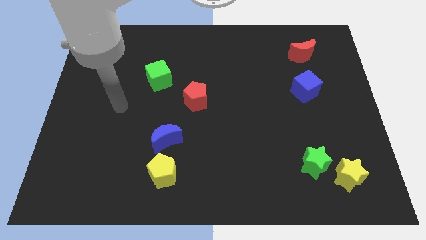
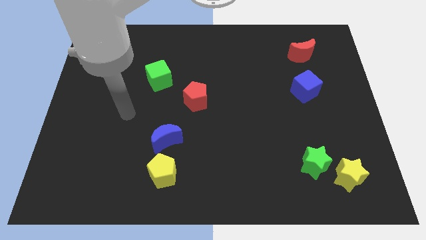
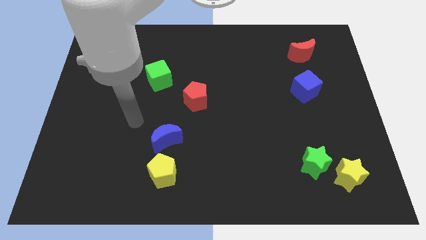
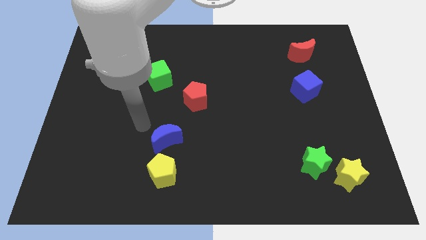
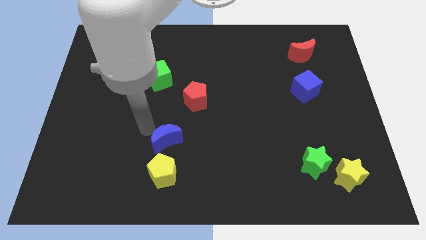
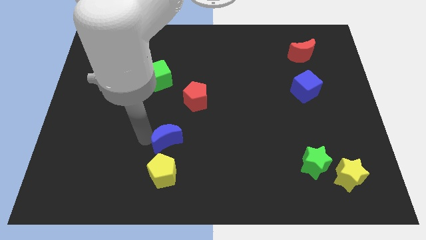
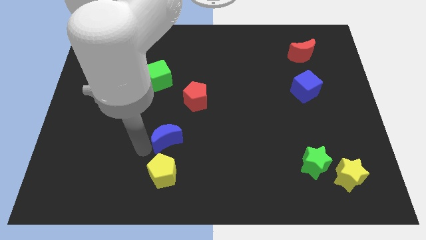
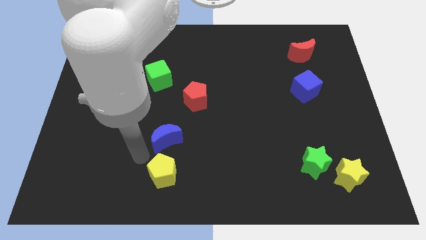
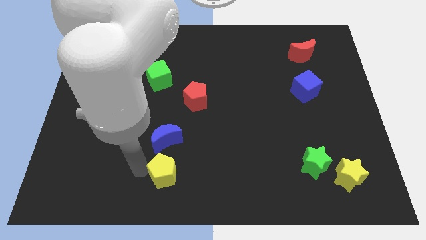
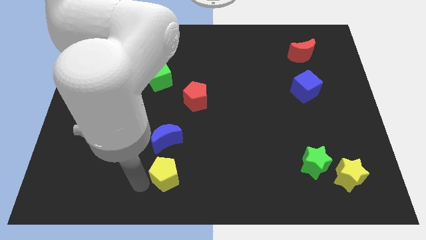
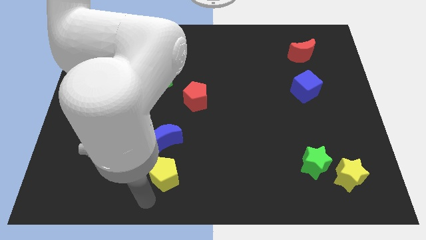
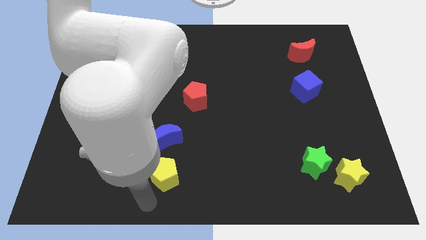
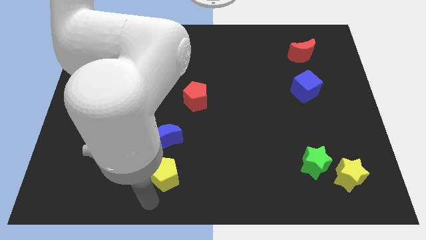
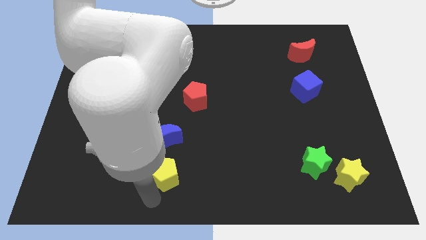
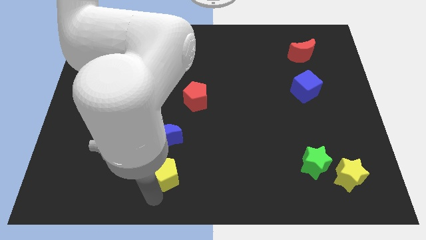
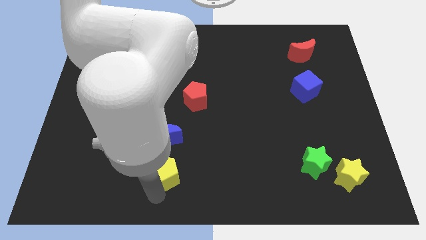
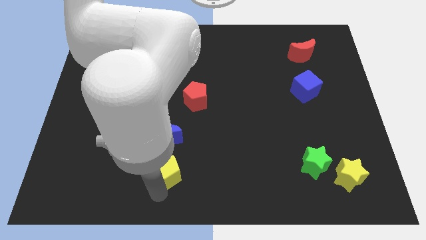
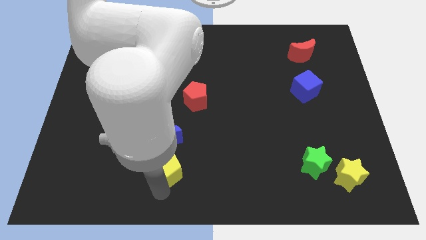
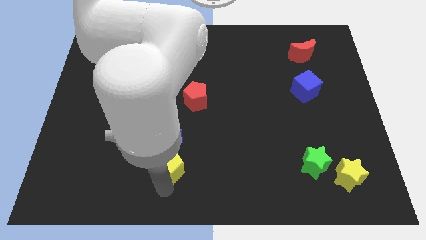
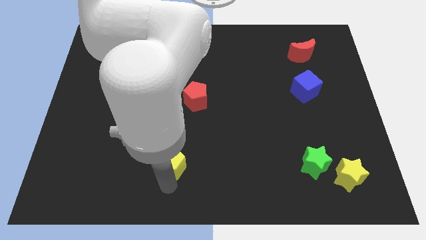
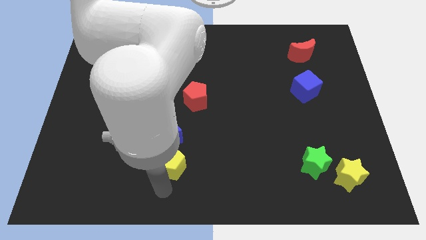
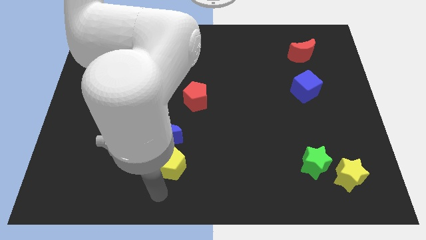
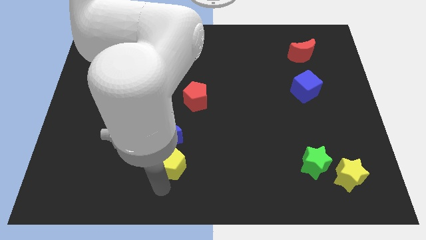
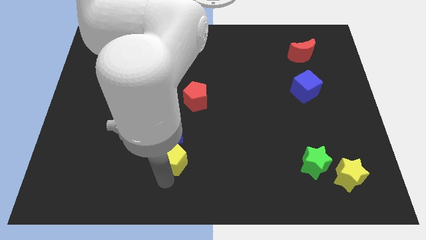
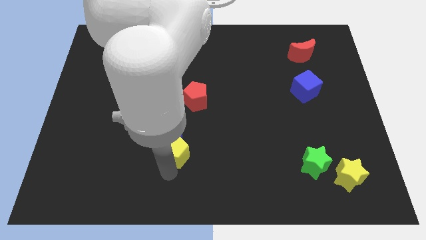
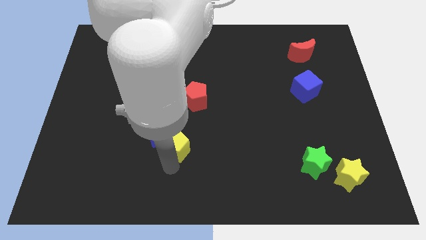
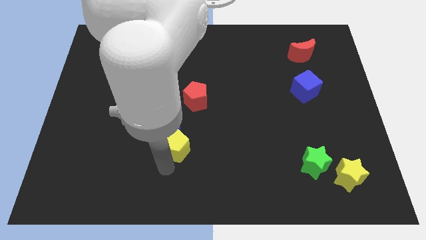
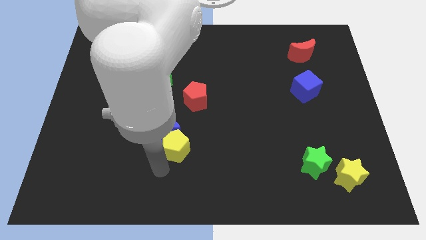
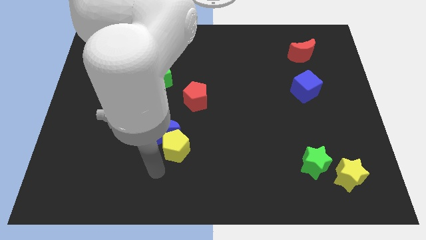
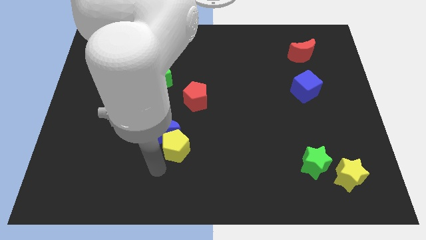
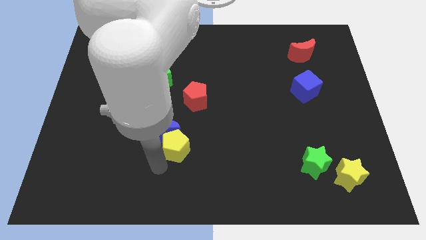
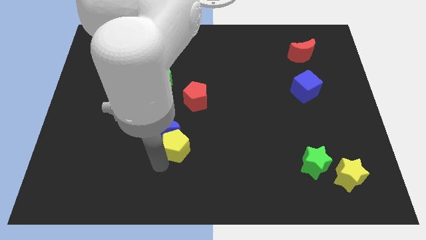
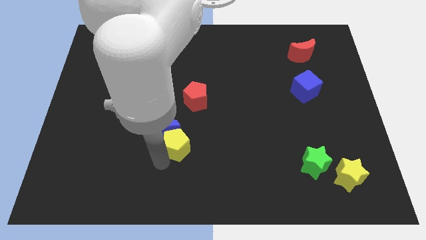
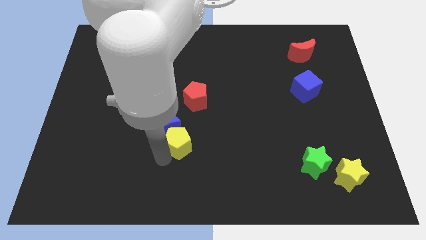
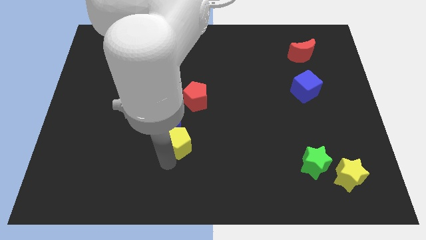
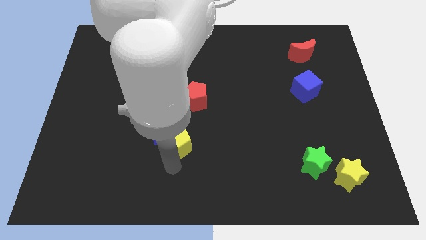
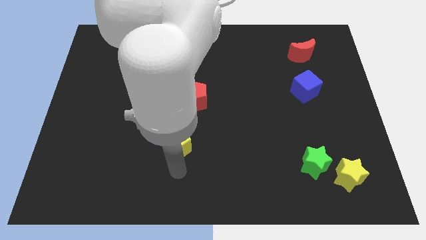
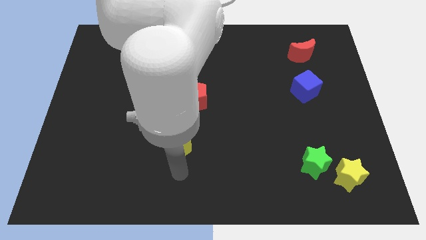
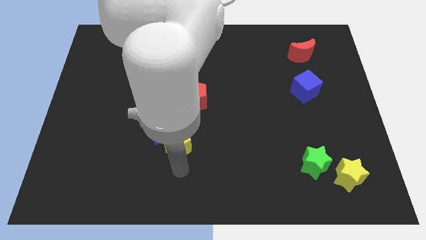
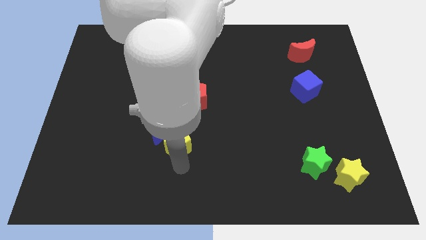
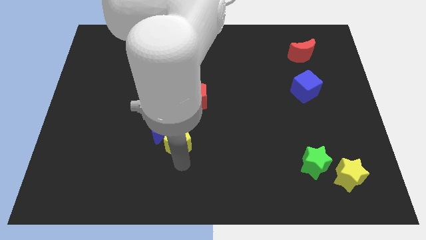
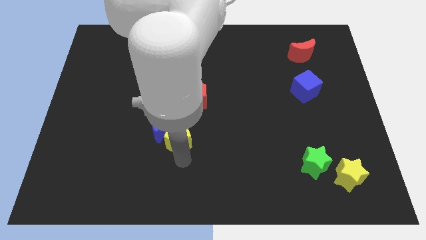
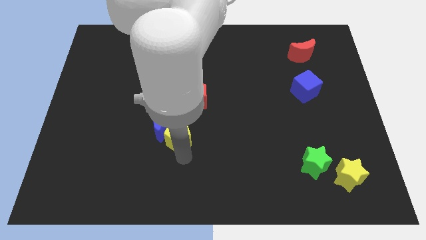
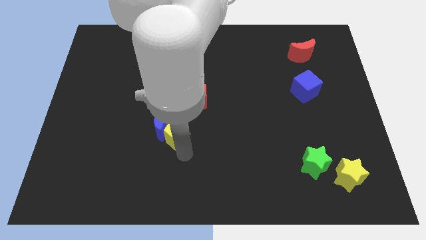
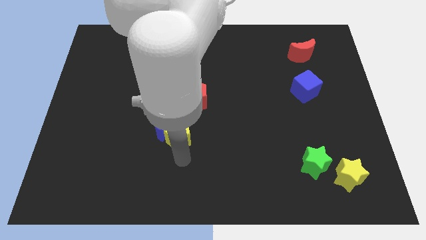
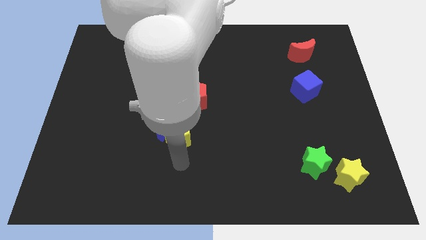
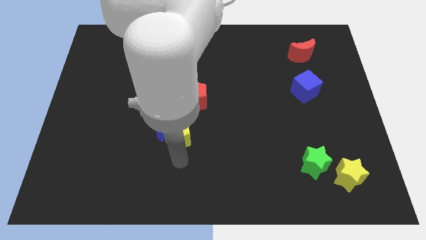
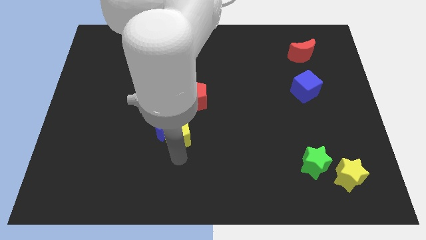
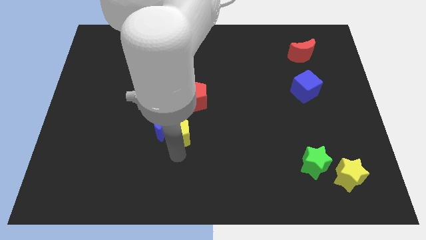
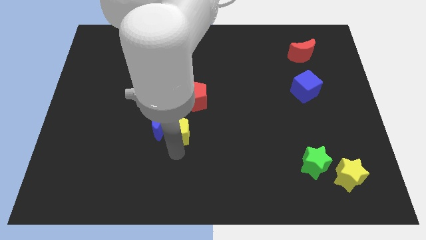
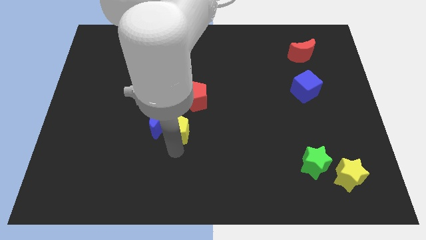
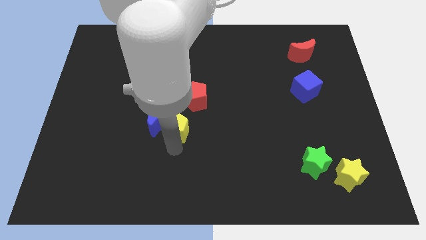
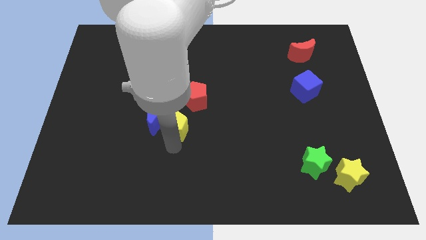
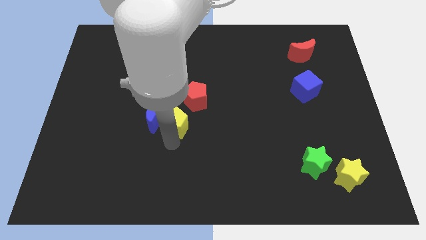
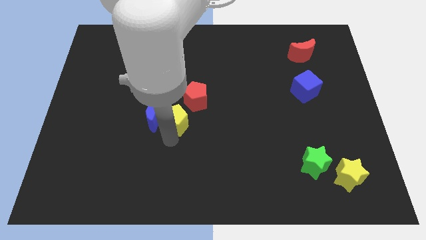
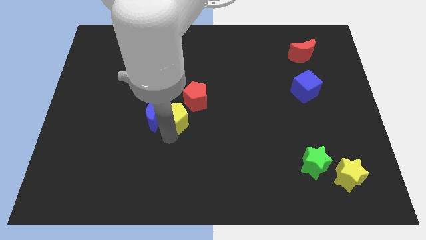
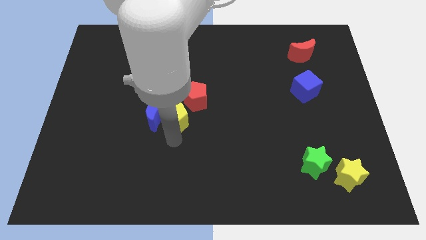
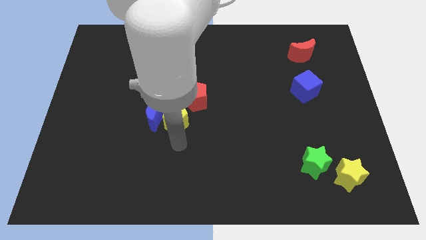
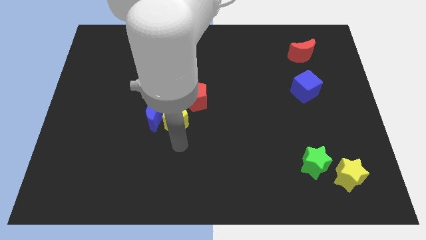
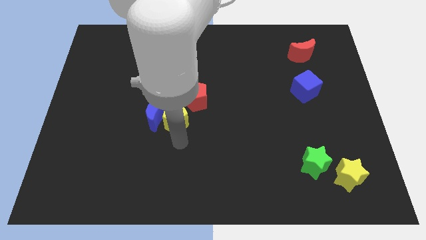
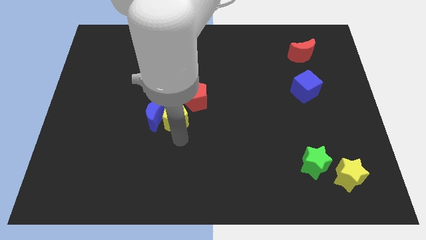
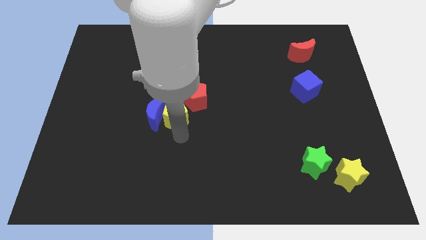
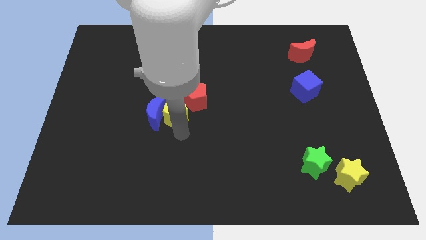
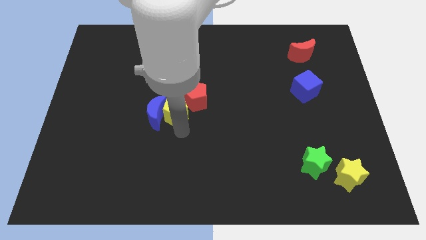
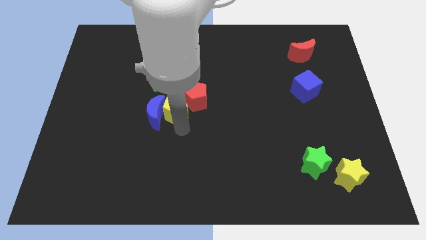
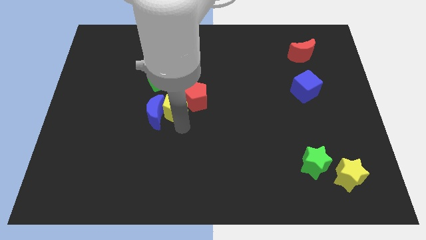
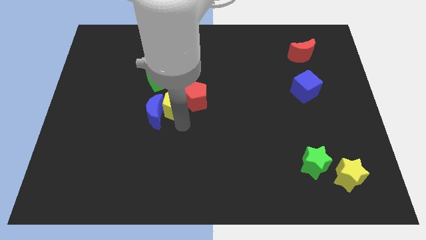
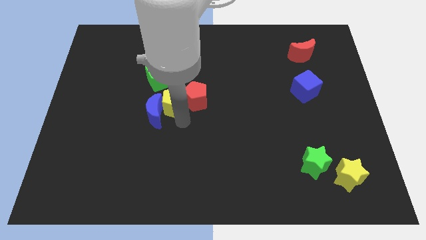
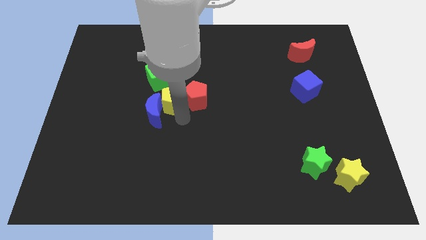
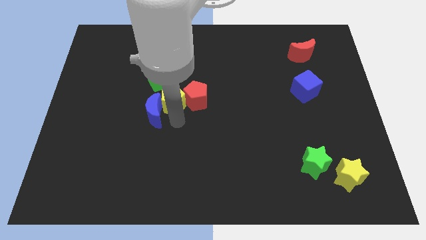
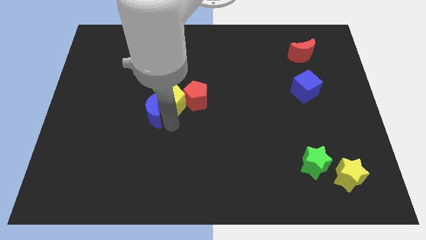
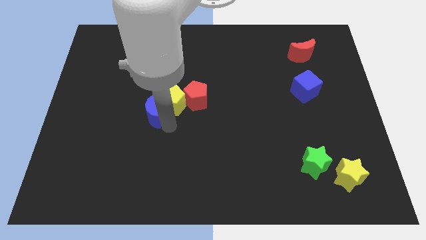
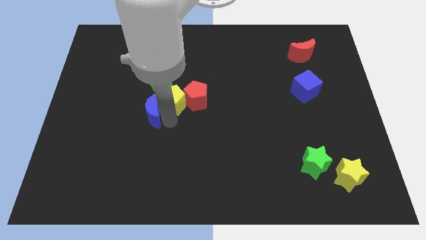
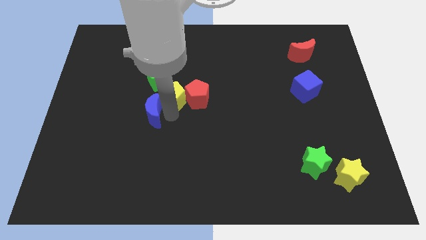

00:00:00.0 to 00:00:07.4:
push the yellow pentagon upwards

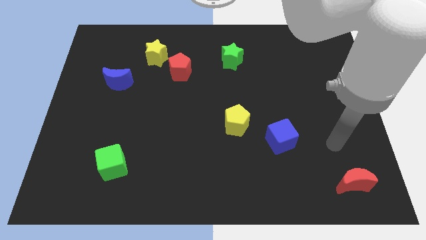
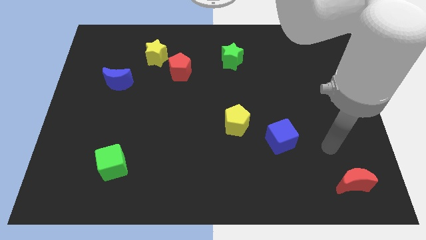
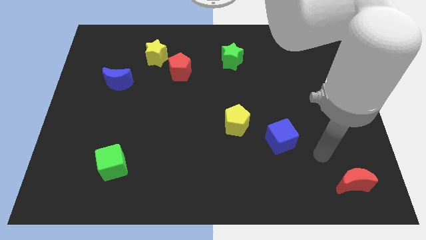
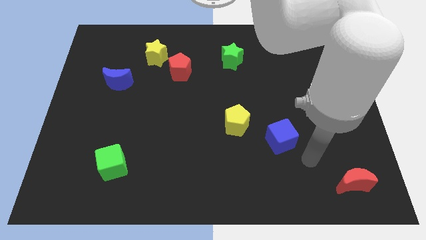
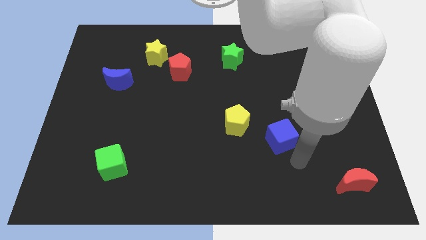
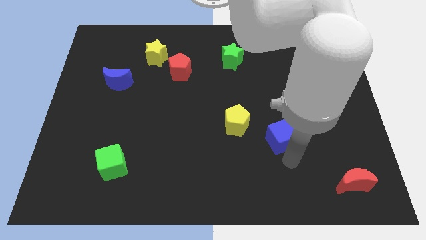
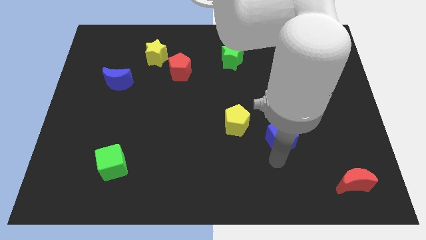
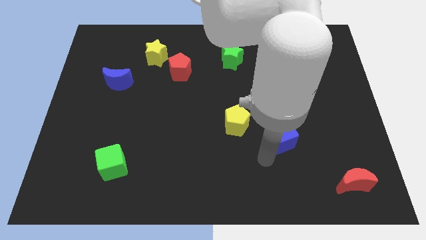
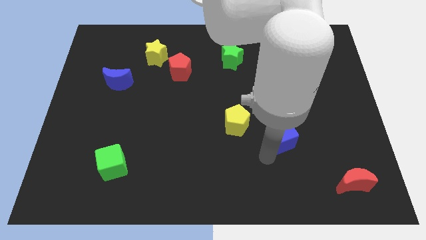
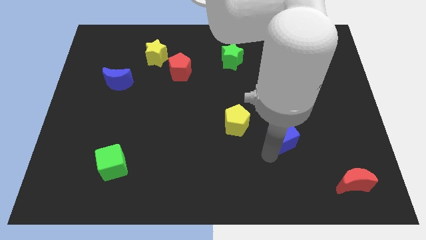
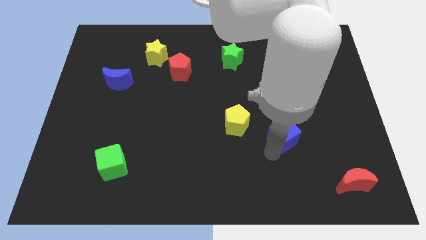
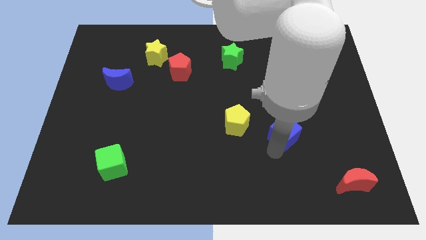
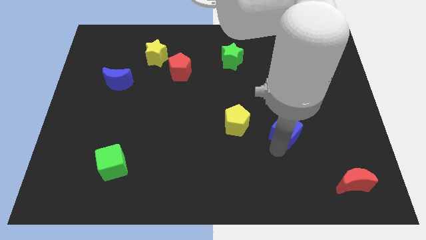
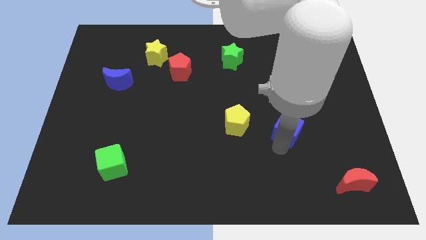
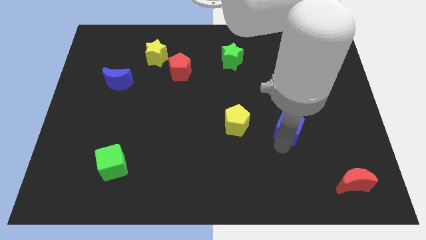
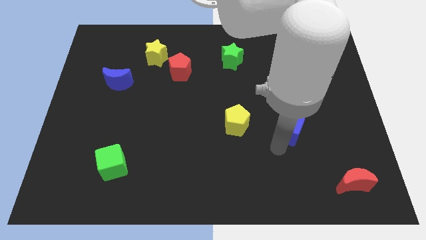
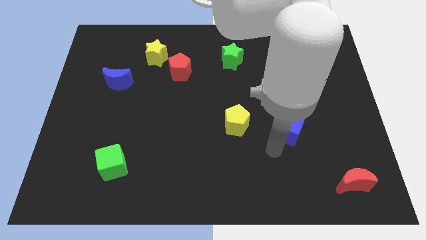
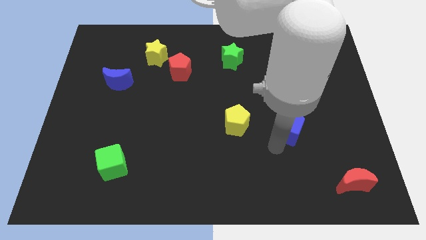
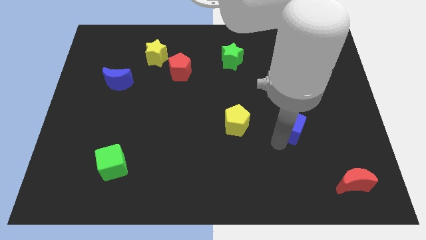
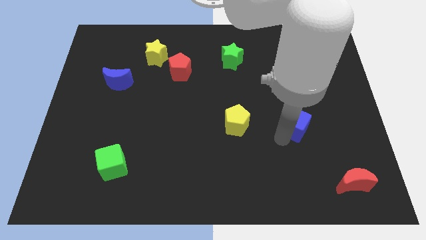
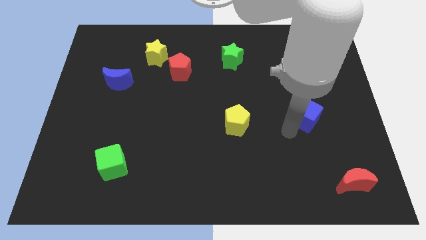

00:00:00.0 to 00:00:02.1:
slide the blue cube upwards and then right a little bit
